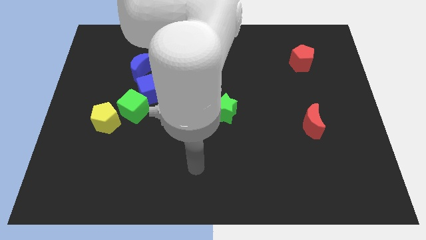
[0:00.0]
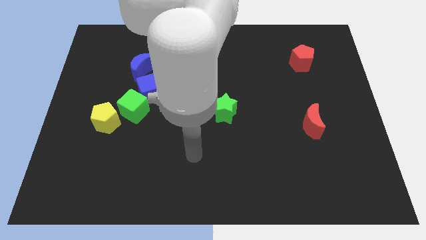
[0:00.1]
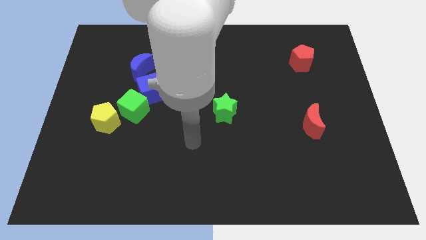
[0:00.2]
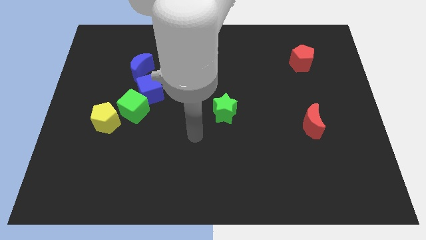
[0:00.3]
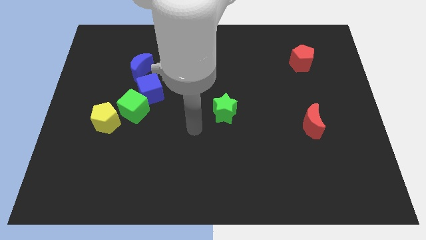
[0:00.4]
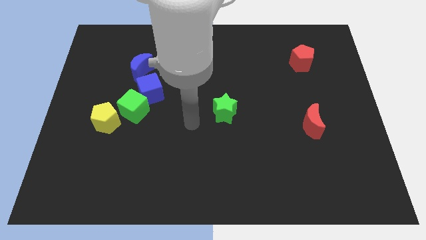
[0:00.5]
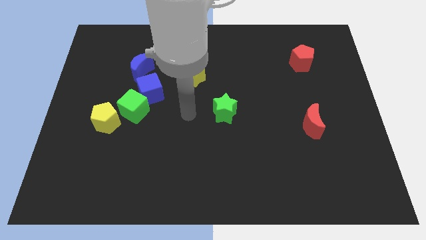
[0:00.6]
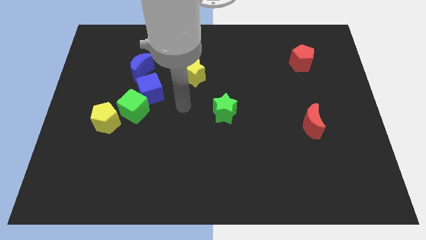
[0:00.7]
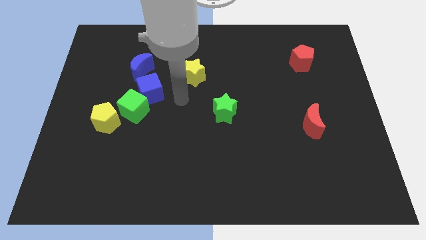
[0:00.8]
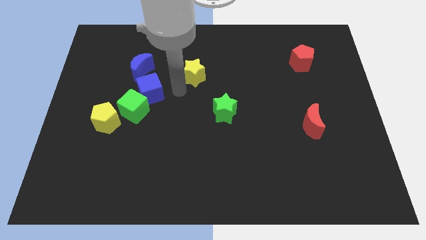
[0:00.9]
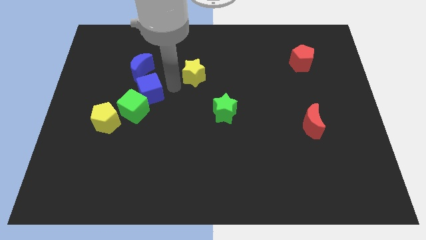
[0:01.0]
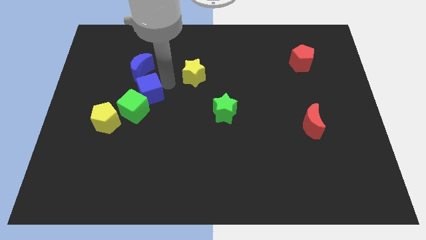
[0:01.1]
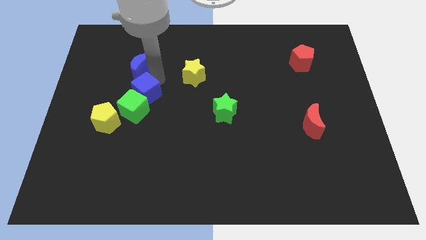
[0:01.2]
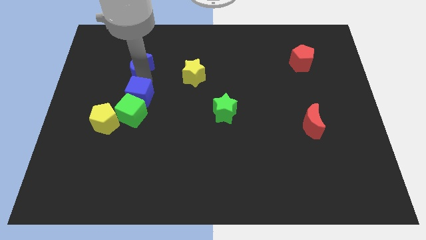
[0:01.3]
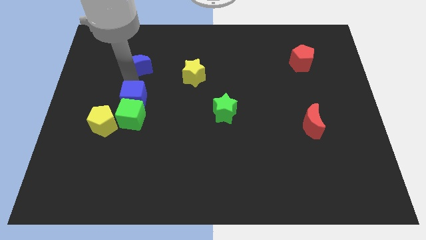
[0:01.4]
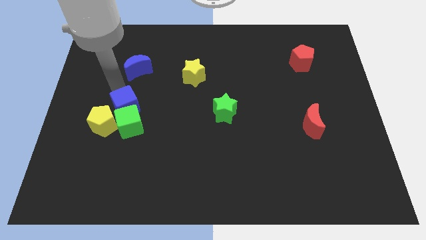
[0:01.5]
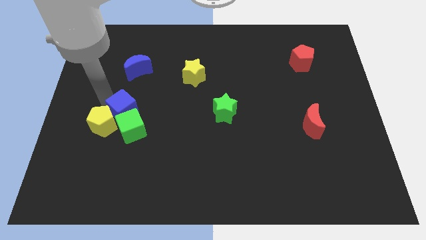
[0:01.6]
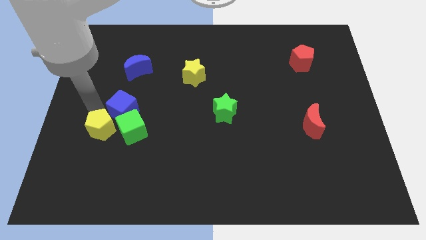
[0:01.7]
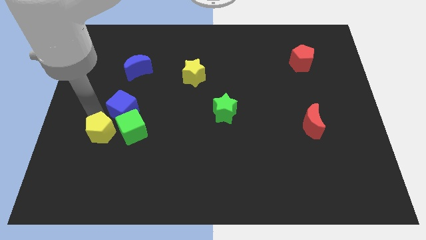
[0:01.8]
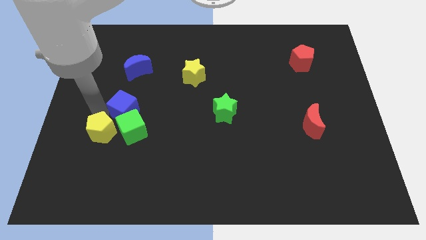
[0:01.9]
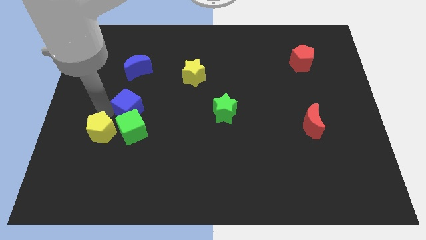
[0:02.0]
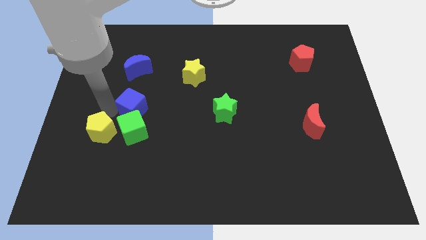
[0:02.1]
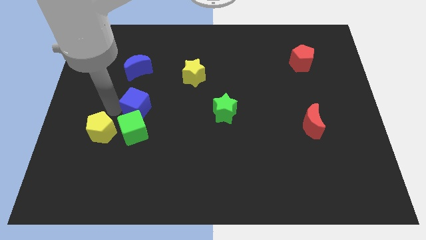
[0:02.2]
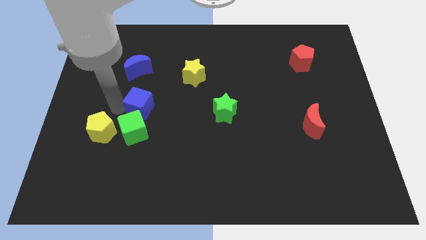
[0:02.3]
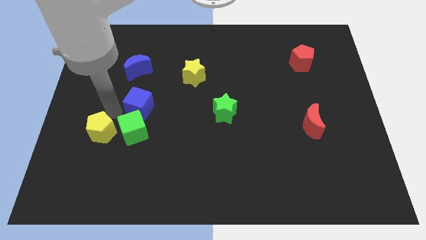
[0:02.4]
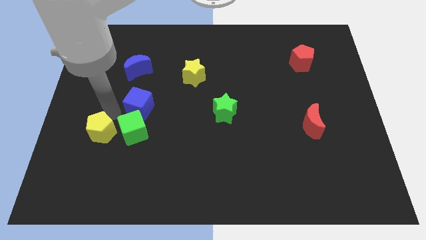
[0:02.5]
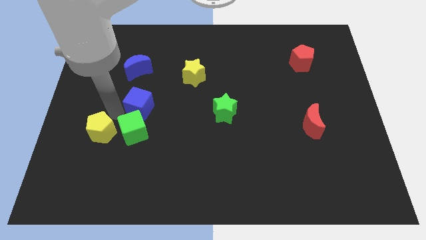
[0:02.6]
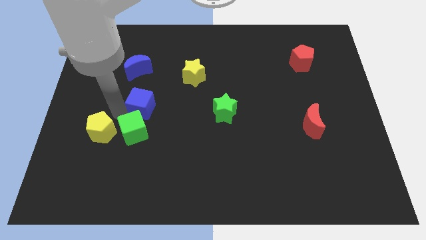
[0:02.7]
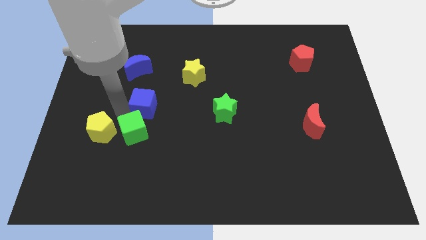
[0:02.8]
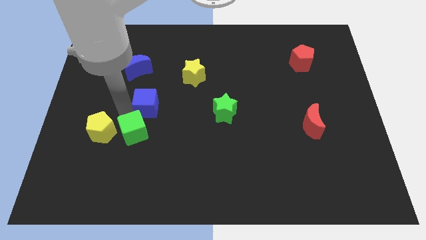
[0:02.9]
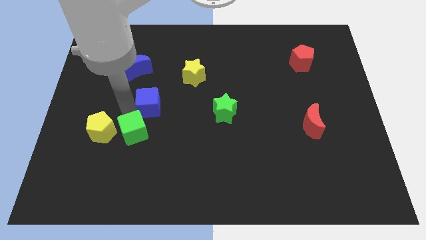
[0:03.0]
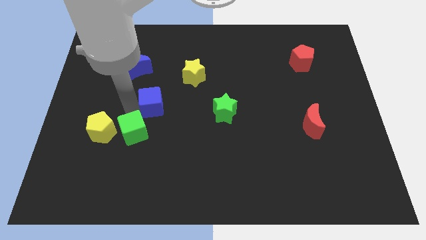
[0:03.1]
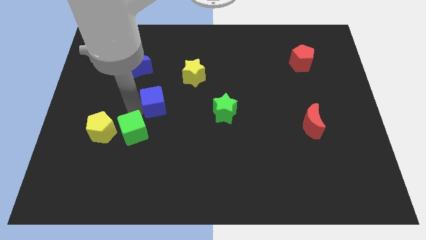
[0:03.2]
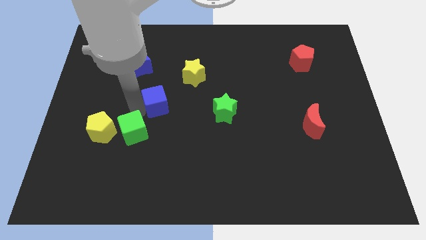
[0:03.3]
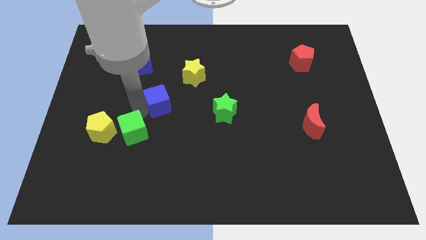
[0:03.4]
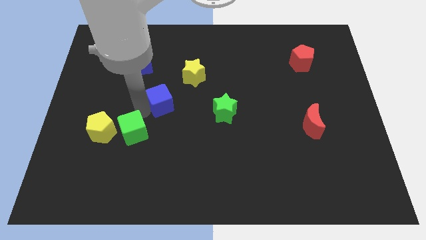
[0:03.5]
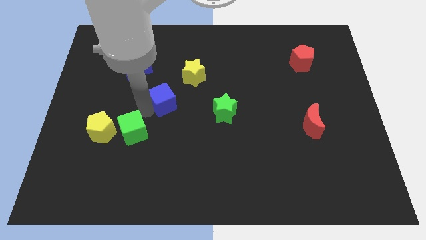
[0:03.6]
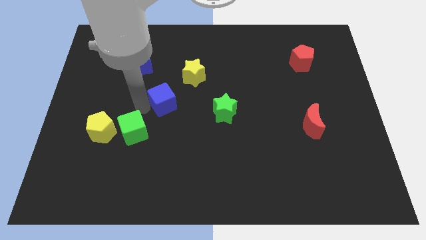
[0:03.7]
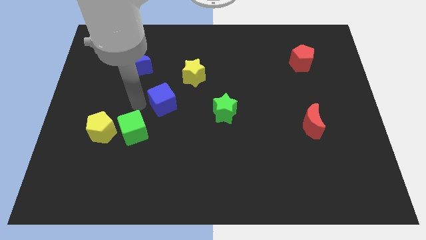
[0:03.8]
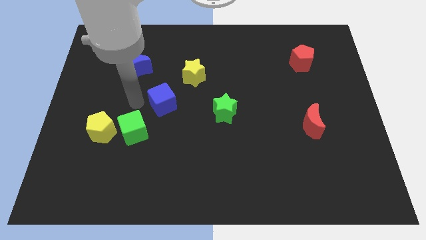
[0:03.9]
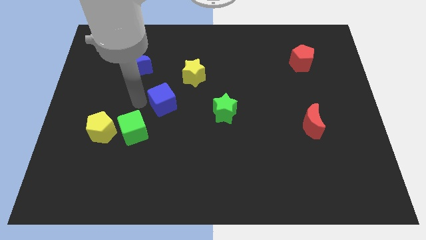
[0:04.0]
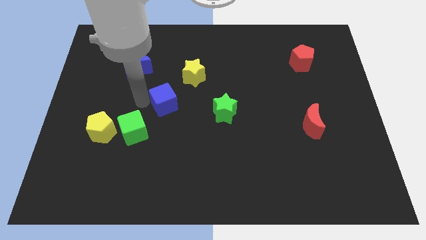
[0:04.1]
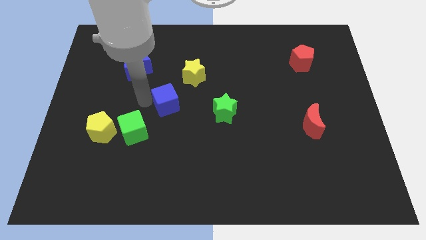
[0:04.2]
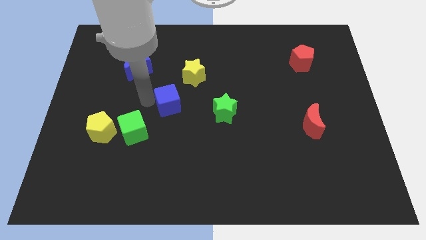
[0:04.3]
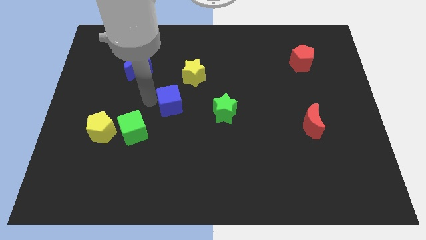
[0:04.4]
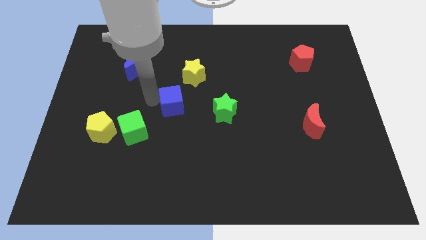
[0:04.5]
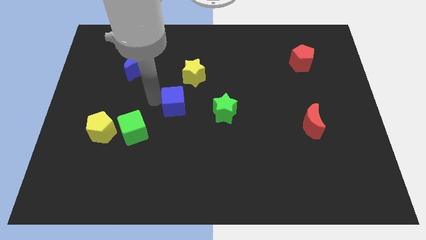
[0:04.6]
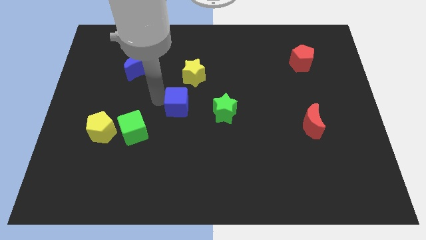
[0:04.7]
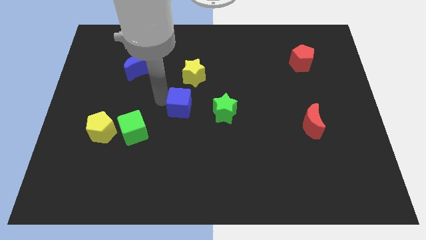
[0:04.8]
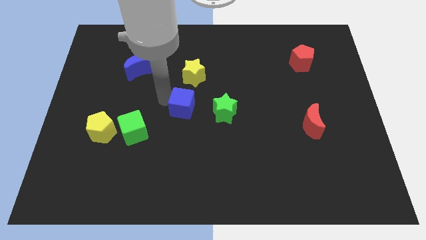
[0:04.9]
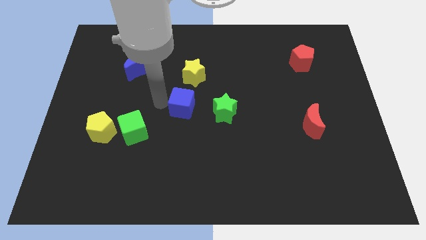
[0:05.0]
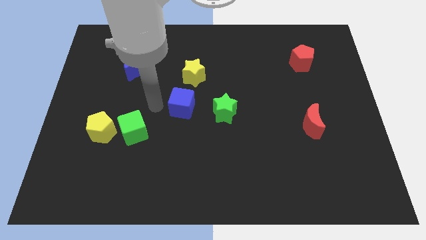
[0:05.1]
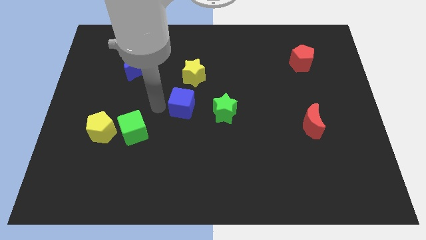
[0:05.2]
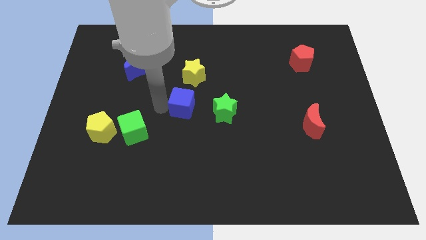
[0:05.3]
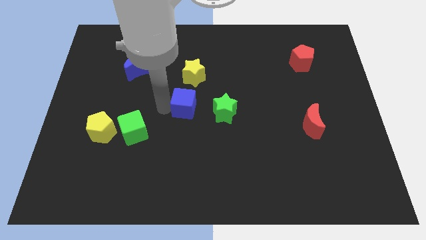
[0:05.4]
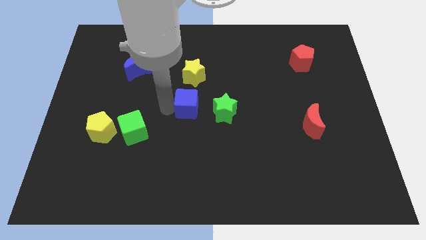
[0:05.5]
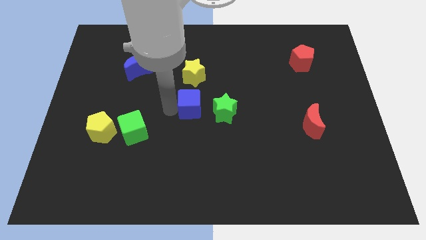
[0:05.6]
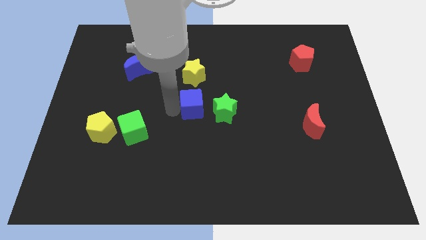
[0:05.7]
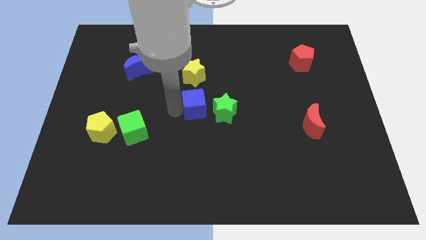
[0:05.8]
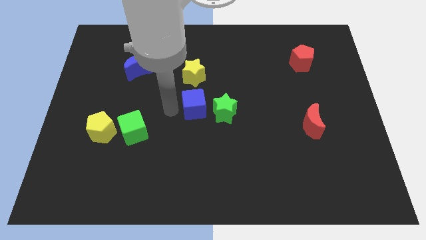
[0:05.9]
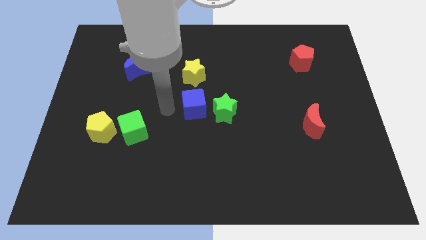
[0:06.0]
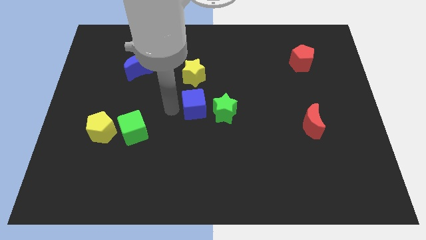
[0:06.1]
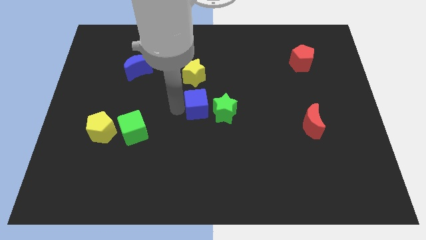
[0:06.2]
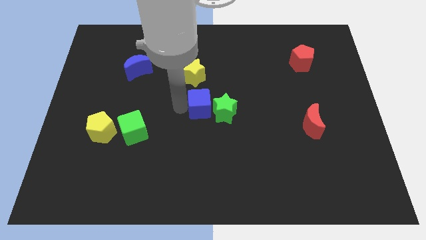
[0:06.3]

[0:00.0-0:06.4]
move the blue cube next to the green star

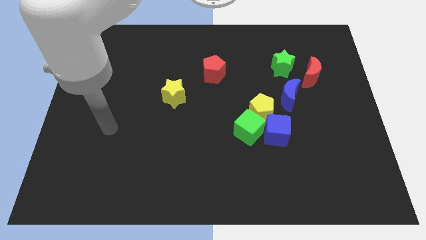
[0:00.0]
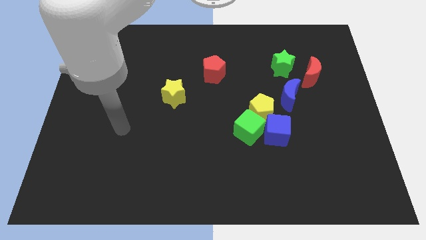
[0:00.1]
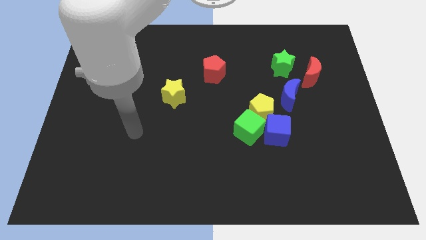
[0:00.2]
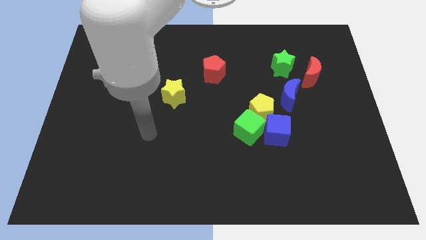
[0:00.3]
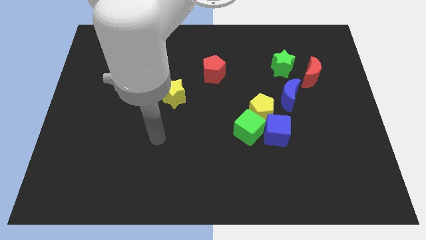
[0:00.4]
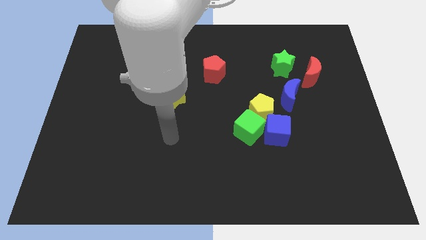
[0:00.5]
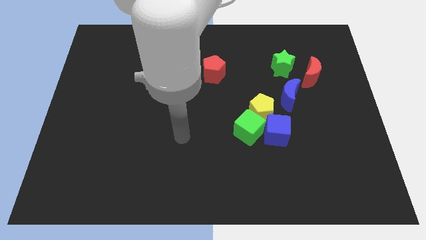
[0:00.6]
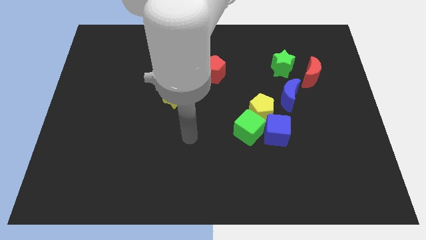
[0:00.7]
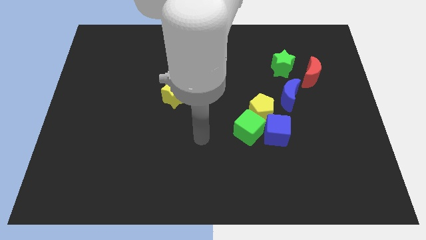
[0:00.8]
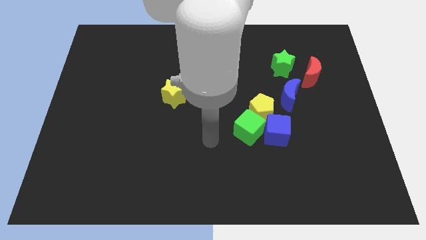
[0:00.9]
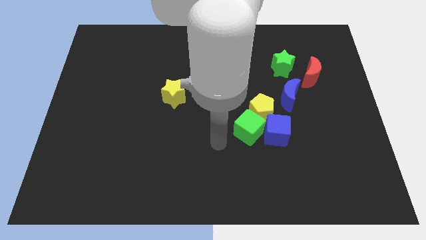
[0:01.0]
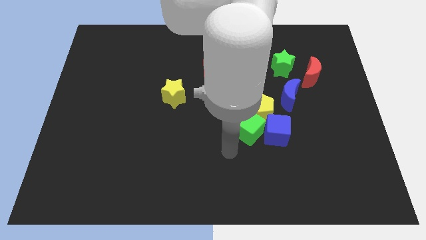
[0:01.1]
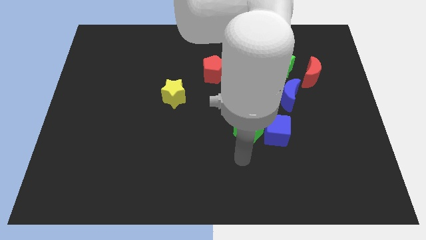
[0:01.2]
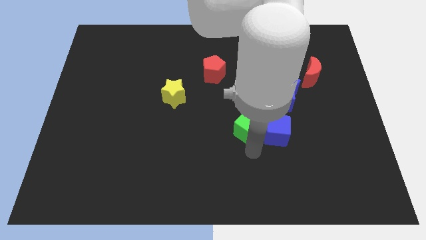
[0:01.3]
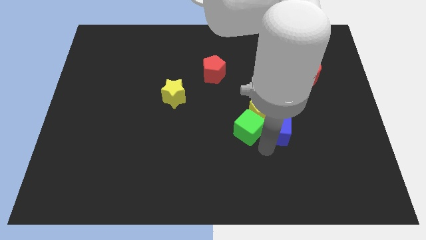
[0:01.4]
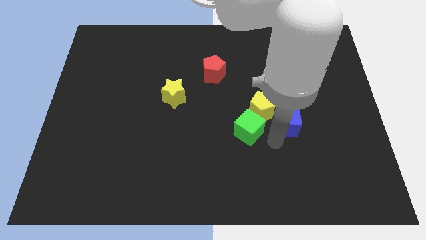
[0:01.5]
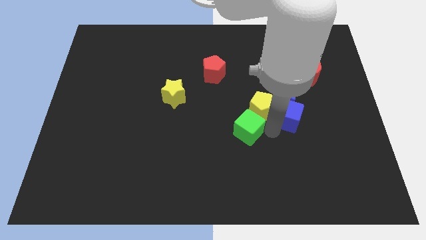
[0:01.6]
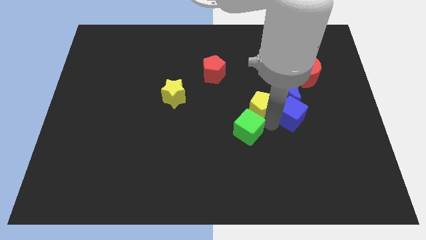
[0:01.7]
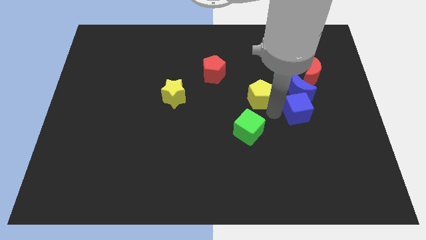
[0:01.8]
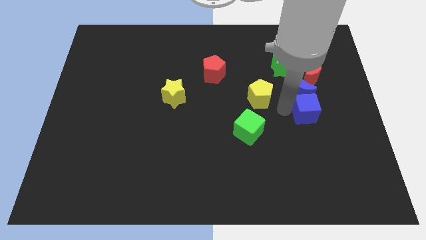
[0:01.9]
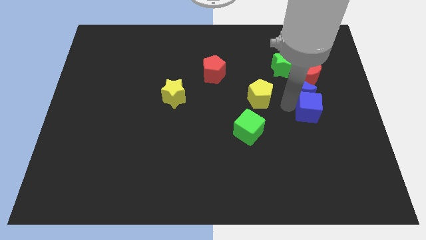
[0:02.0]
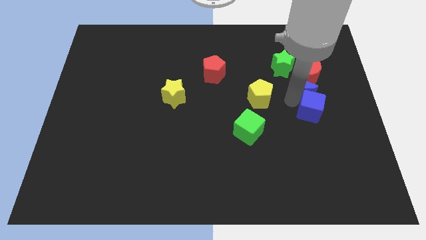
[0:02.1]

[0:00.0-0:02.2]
push the blue moon to the red moon
